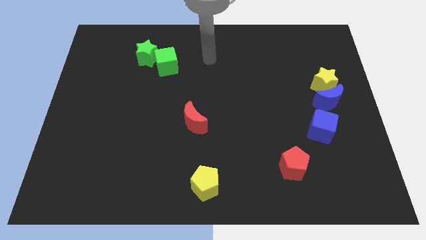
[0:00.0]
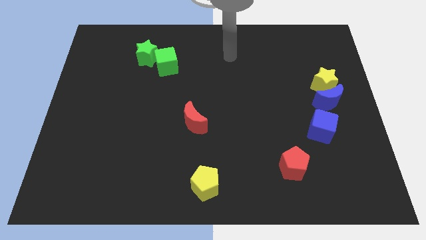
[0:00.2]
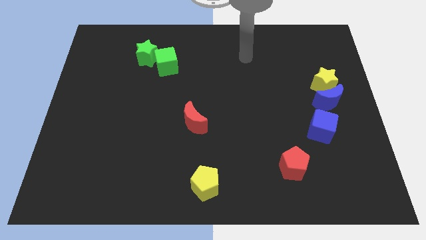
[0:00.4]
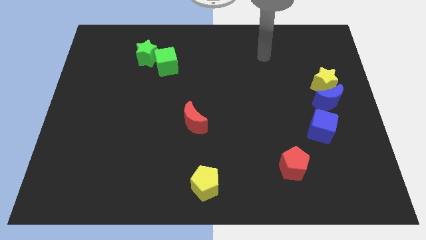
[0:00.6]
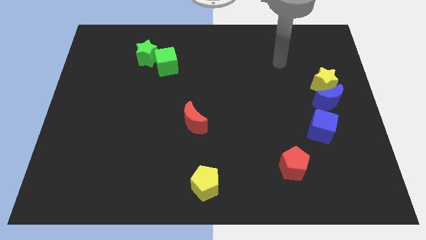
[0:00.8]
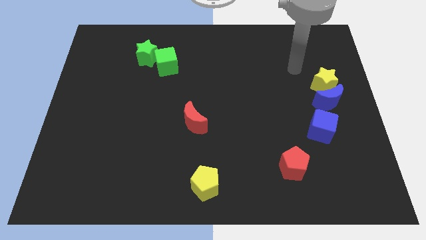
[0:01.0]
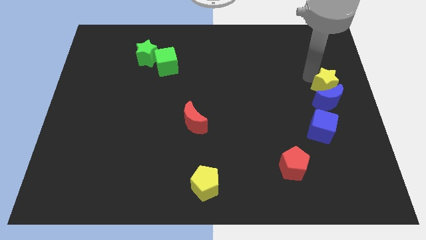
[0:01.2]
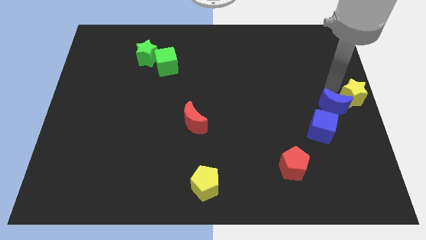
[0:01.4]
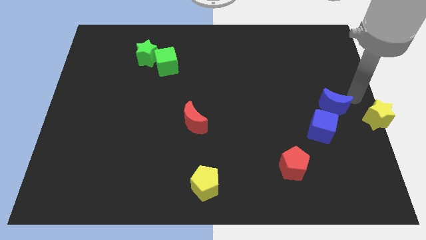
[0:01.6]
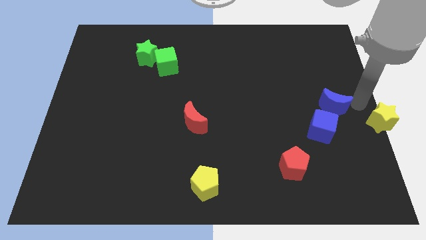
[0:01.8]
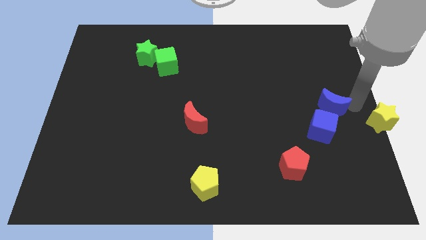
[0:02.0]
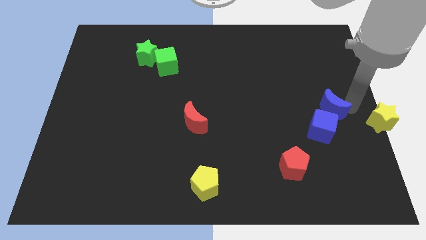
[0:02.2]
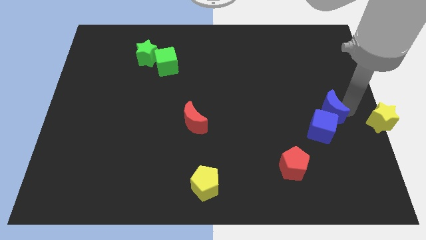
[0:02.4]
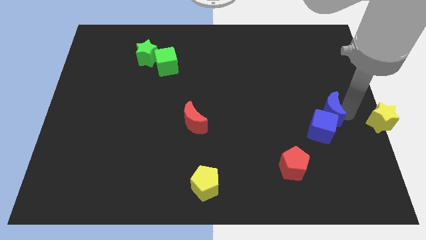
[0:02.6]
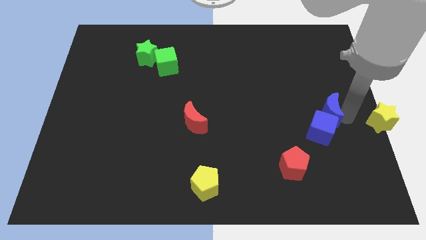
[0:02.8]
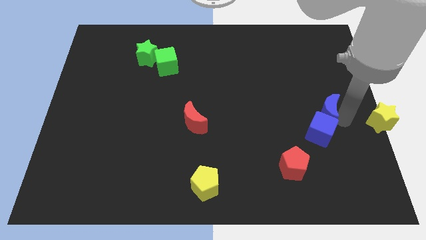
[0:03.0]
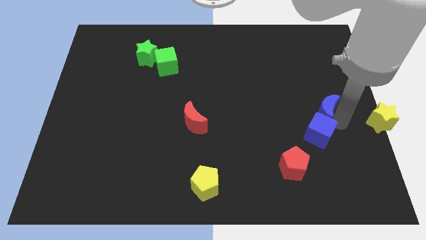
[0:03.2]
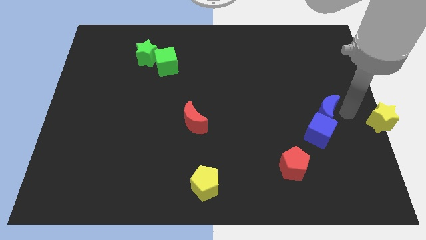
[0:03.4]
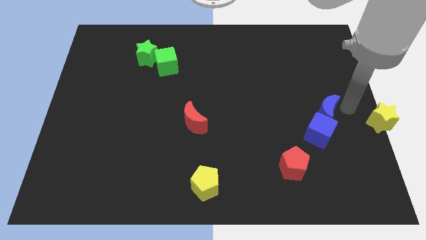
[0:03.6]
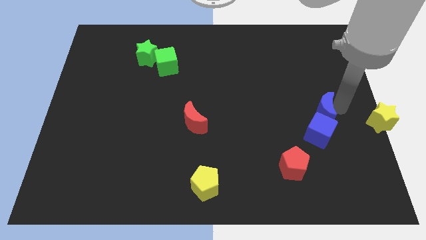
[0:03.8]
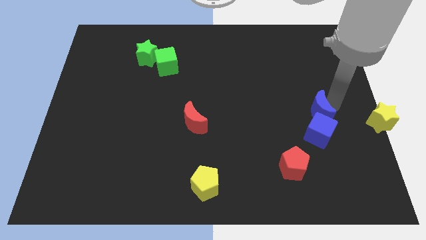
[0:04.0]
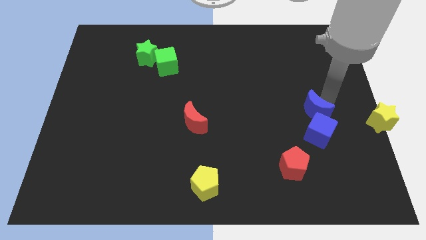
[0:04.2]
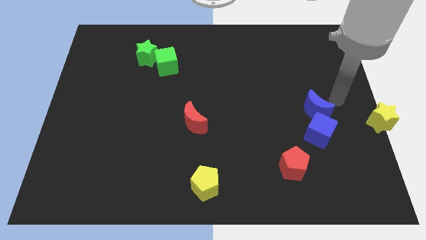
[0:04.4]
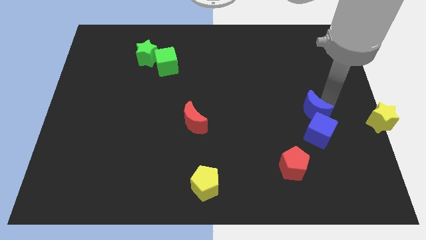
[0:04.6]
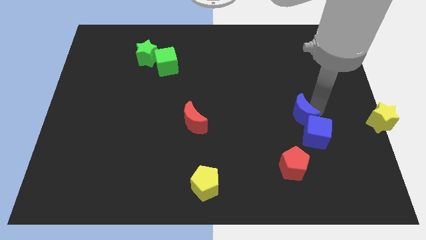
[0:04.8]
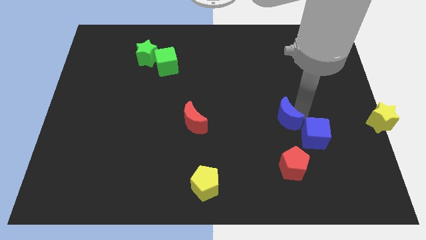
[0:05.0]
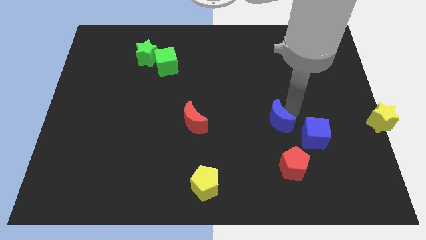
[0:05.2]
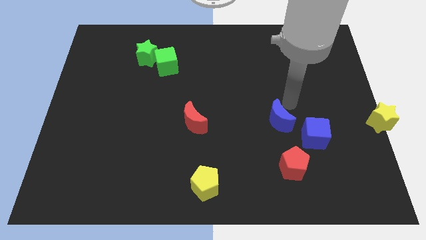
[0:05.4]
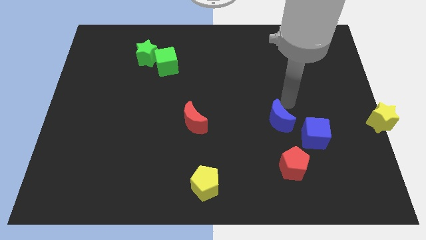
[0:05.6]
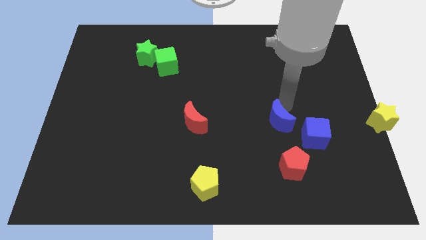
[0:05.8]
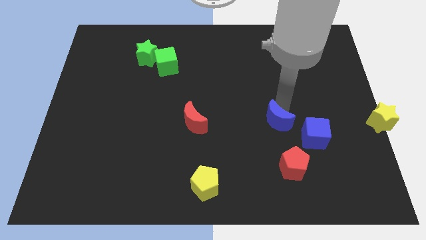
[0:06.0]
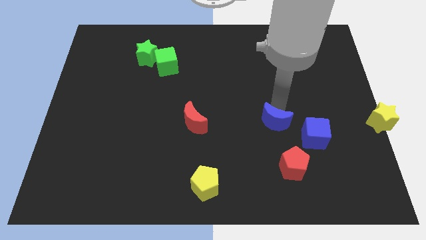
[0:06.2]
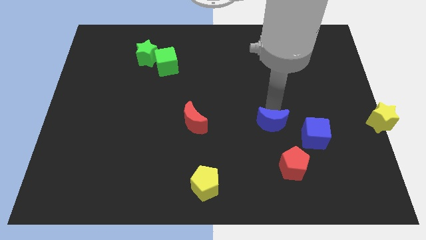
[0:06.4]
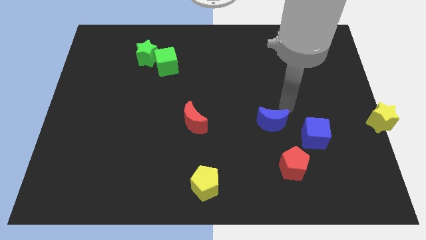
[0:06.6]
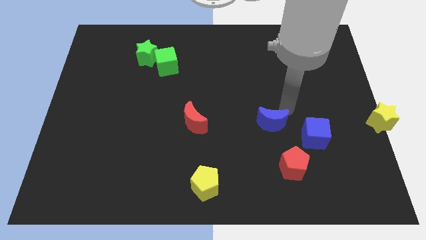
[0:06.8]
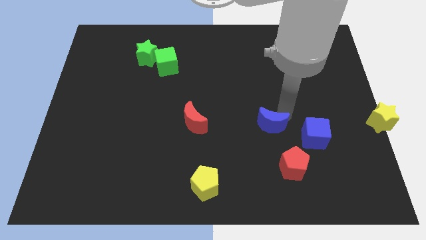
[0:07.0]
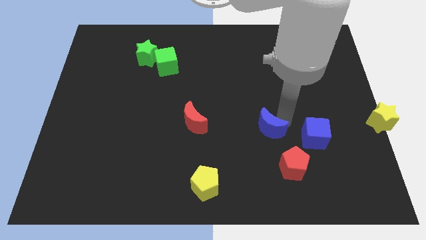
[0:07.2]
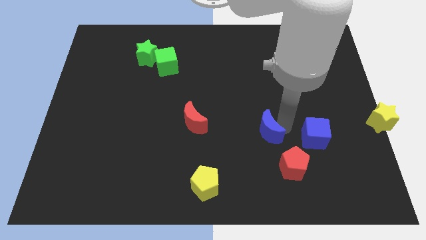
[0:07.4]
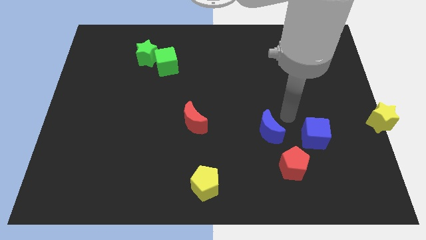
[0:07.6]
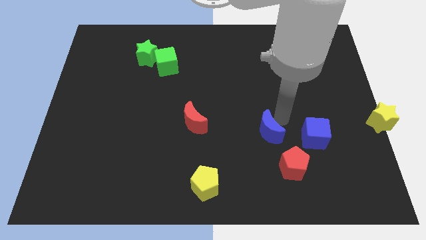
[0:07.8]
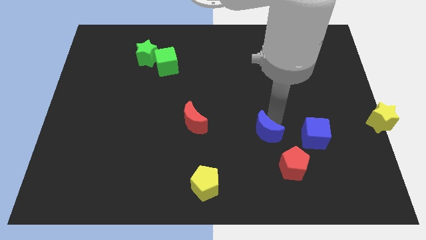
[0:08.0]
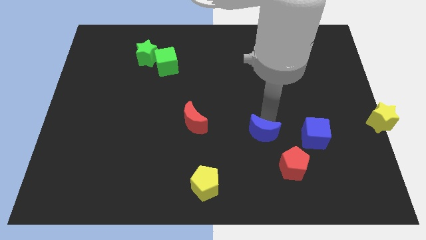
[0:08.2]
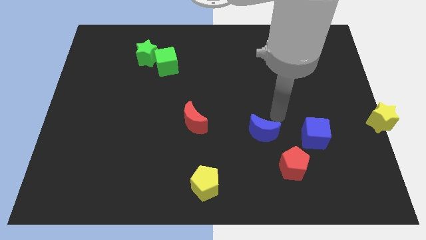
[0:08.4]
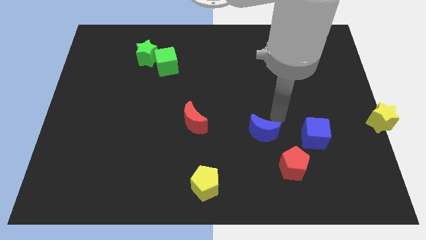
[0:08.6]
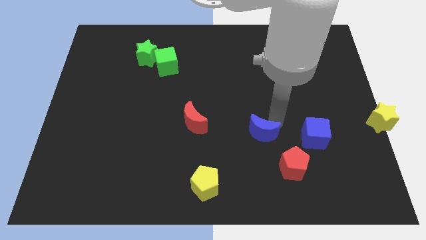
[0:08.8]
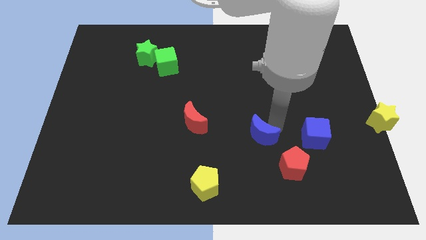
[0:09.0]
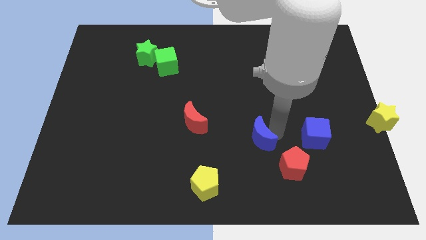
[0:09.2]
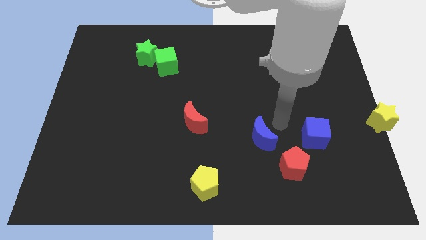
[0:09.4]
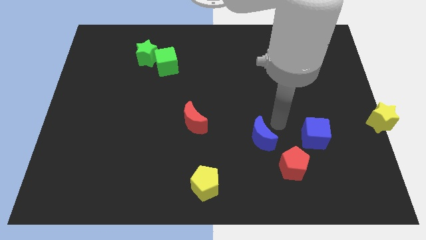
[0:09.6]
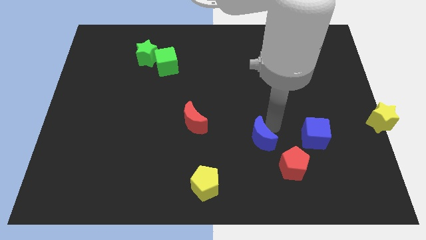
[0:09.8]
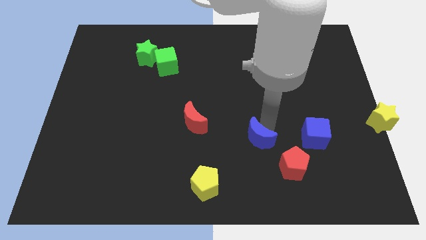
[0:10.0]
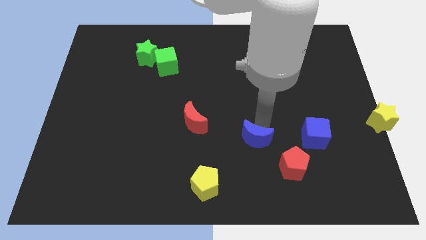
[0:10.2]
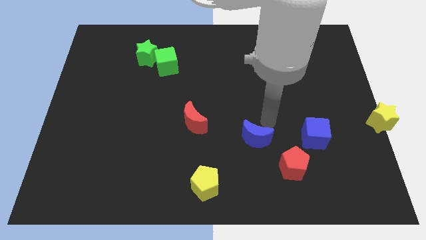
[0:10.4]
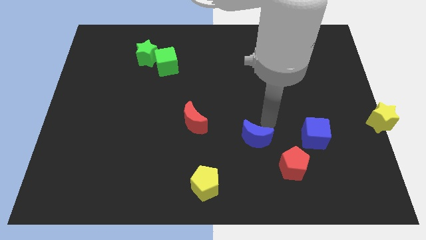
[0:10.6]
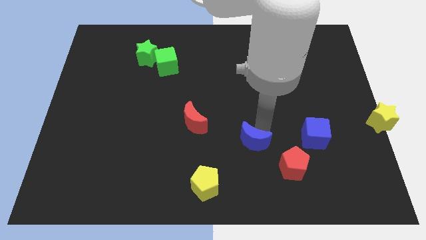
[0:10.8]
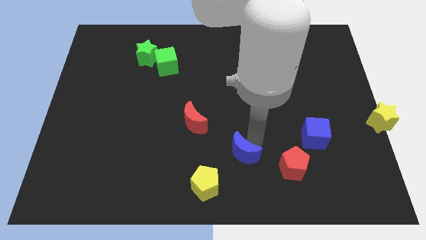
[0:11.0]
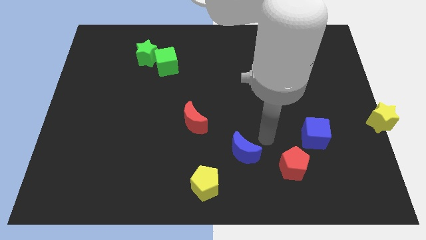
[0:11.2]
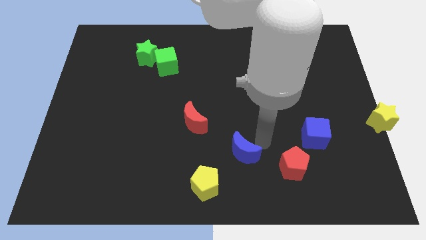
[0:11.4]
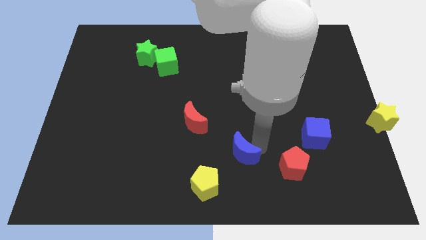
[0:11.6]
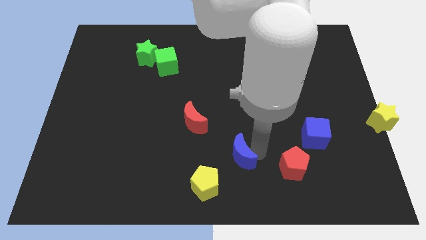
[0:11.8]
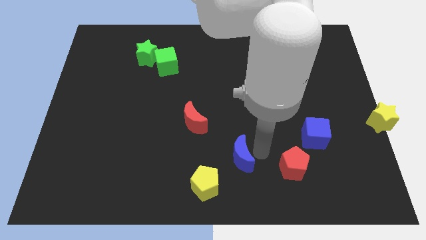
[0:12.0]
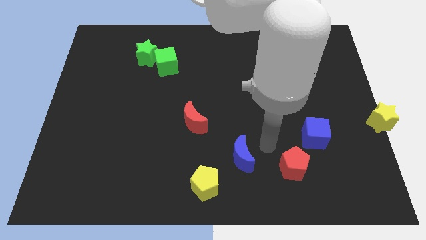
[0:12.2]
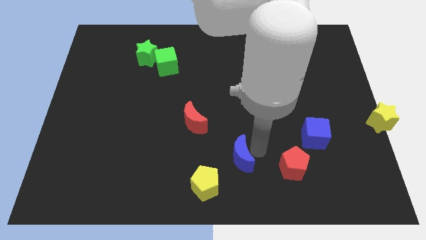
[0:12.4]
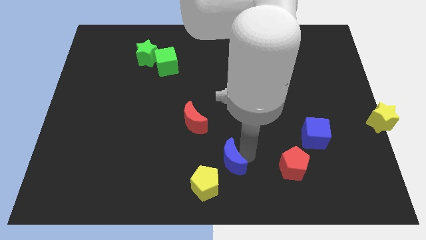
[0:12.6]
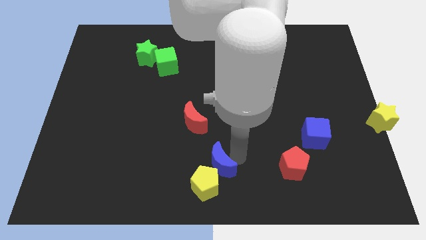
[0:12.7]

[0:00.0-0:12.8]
put the blue moon next to the yellow pentagon

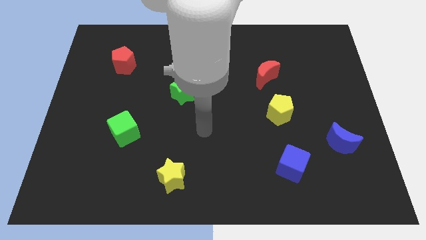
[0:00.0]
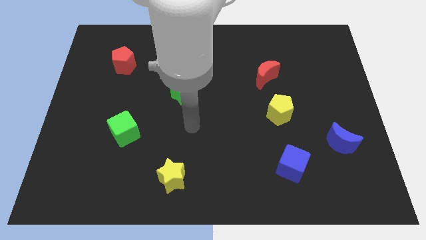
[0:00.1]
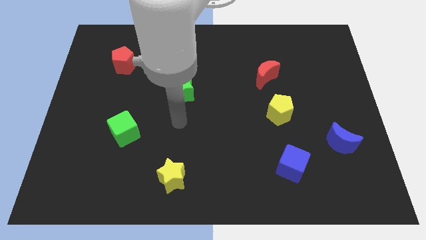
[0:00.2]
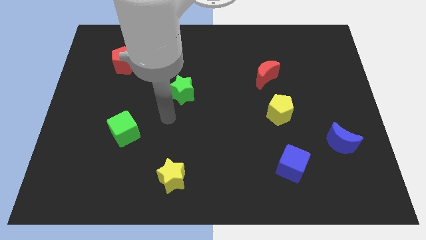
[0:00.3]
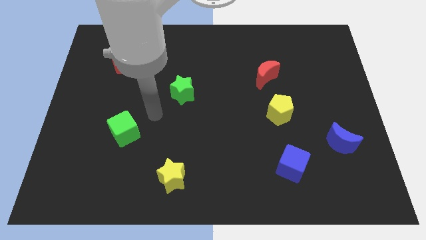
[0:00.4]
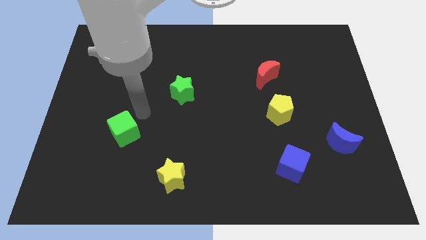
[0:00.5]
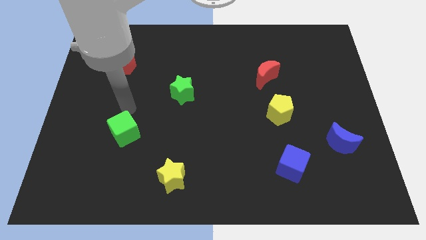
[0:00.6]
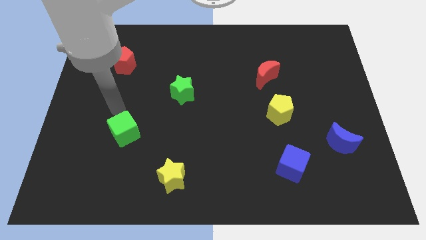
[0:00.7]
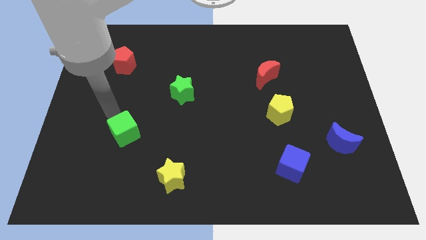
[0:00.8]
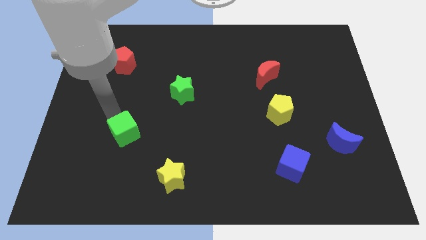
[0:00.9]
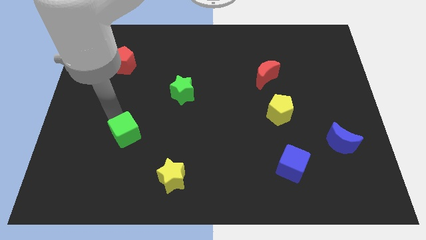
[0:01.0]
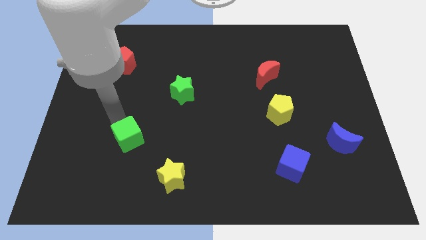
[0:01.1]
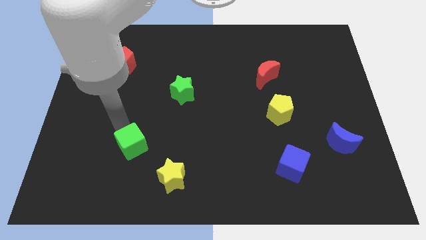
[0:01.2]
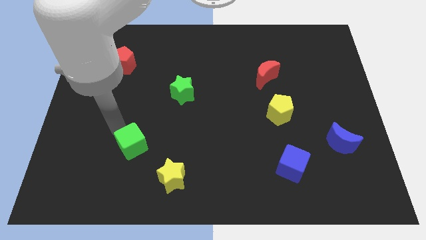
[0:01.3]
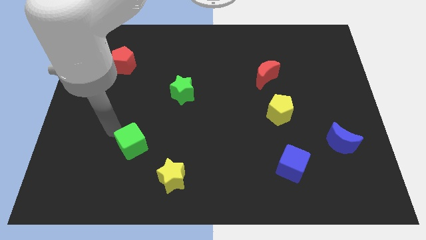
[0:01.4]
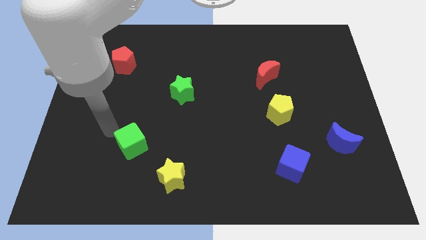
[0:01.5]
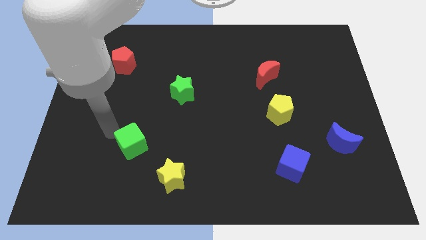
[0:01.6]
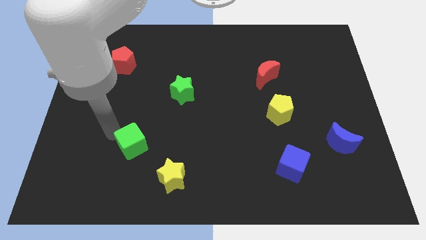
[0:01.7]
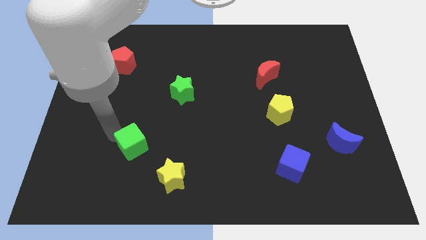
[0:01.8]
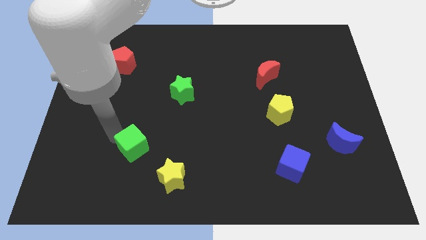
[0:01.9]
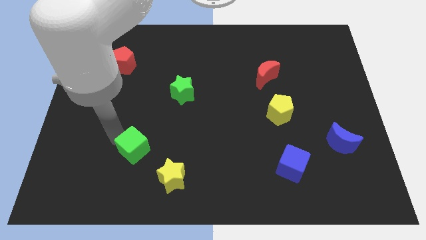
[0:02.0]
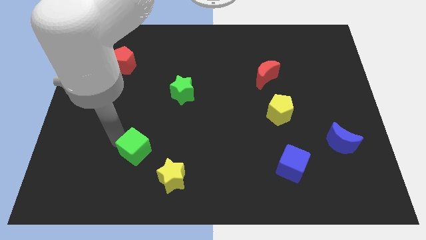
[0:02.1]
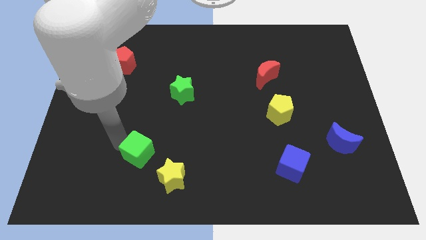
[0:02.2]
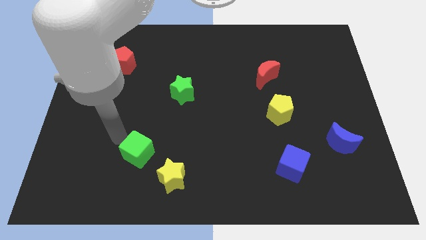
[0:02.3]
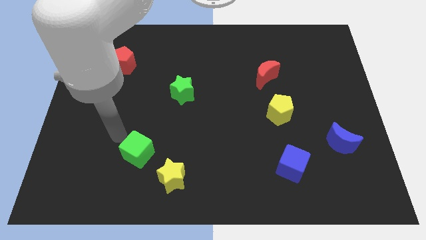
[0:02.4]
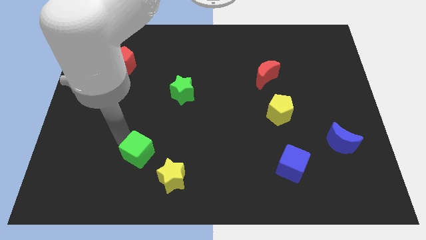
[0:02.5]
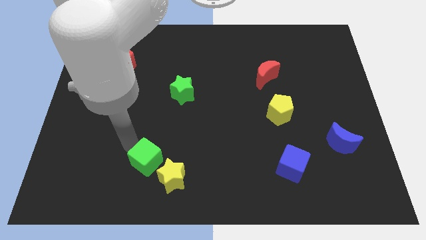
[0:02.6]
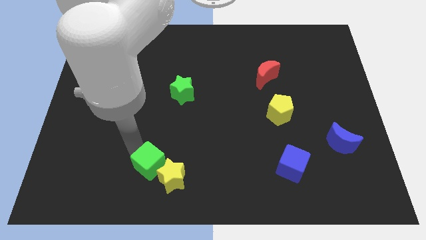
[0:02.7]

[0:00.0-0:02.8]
put the green cube close to the yellow star
